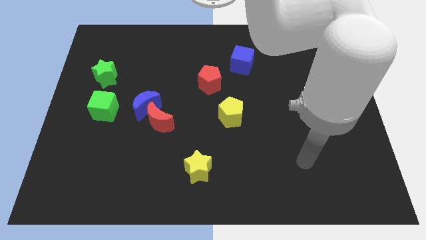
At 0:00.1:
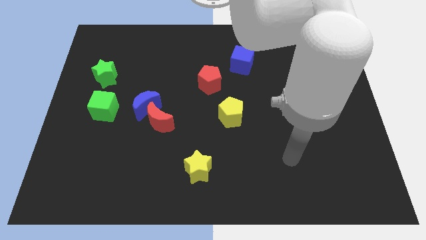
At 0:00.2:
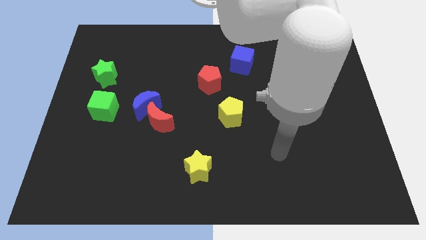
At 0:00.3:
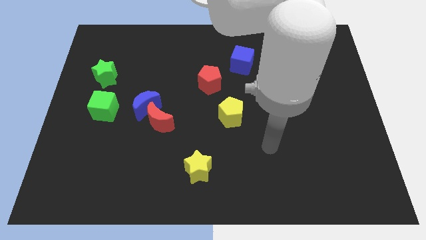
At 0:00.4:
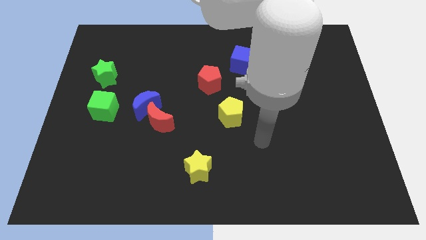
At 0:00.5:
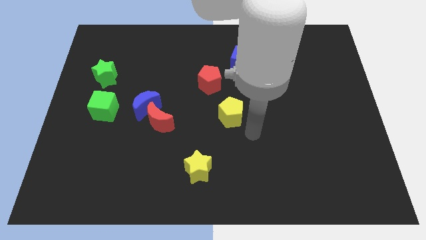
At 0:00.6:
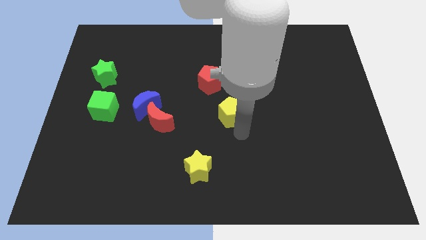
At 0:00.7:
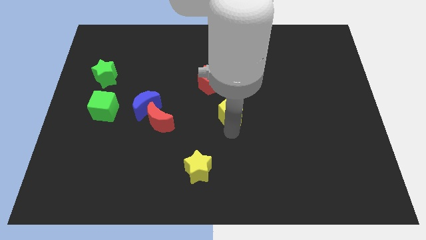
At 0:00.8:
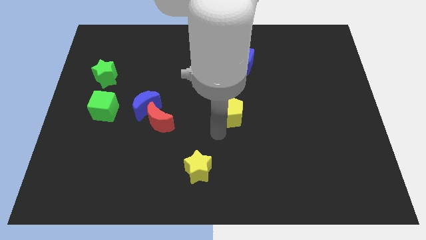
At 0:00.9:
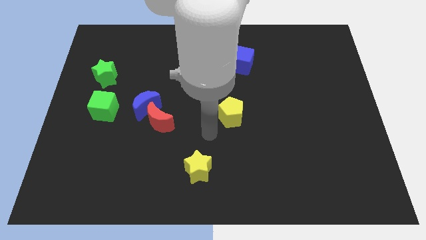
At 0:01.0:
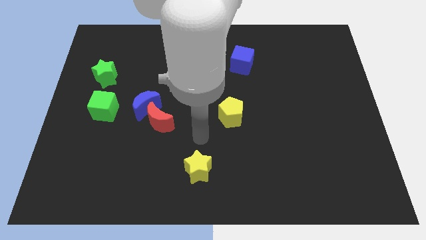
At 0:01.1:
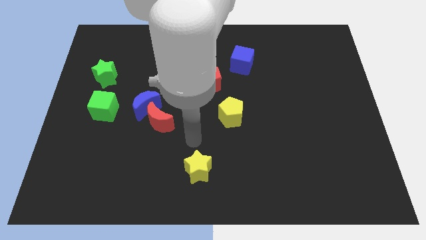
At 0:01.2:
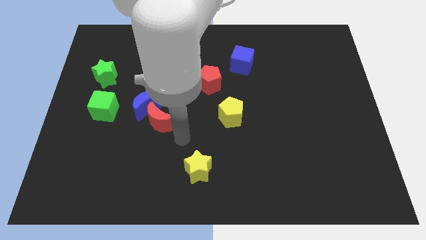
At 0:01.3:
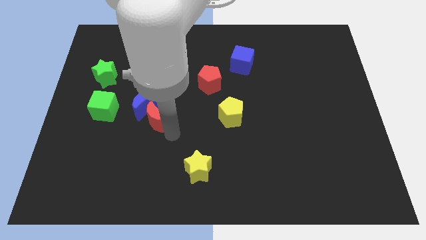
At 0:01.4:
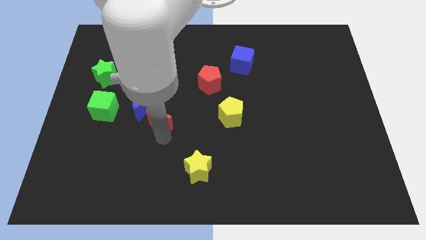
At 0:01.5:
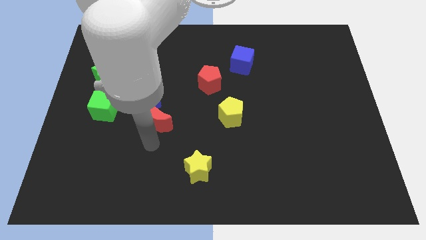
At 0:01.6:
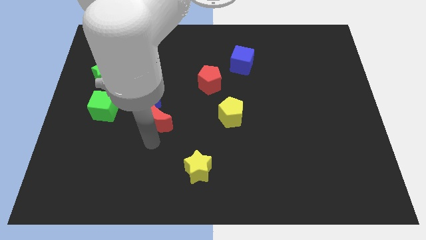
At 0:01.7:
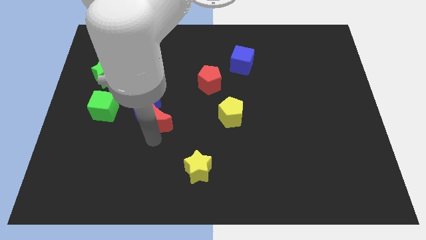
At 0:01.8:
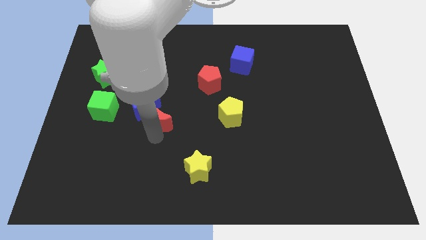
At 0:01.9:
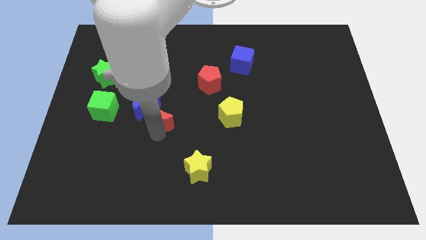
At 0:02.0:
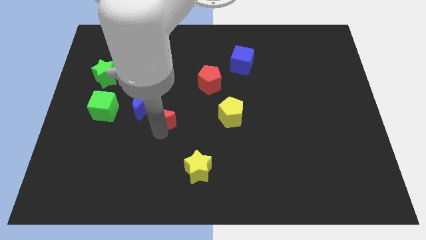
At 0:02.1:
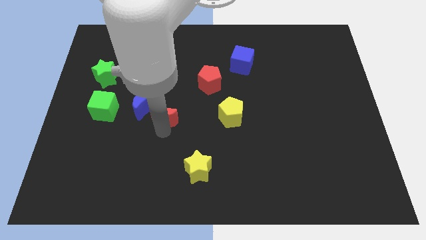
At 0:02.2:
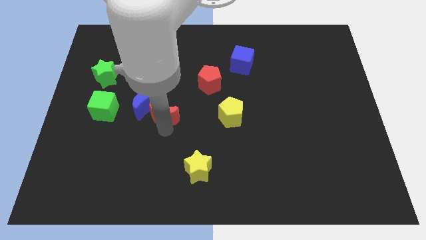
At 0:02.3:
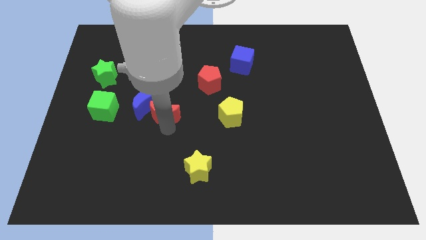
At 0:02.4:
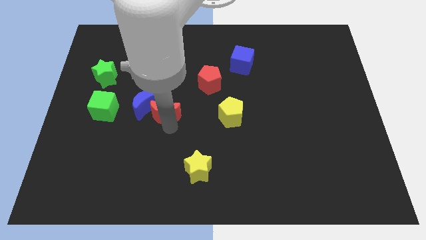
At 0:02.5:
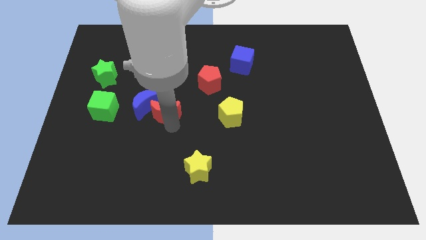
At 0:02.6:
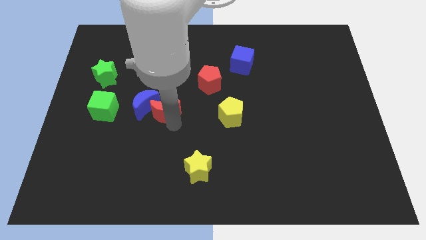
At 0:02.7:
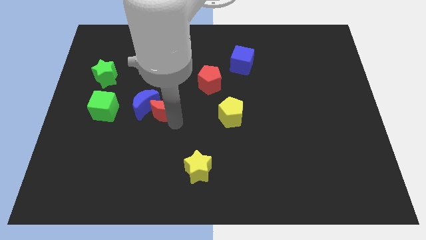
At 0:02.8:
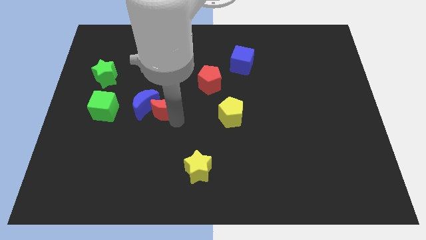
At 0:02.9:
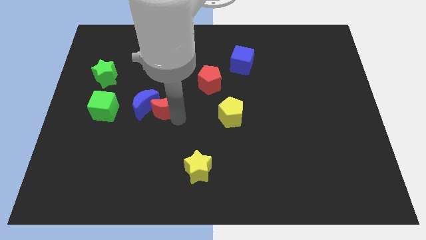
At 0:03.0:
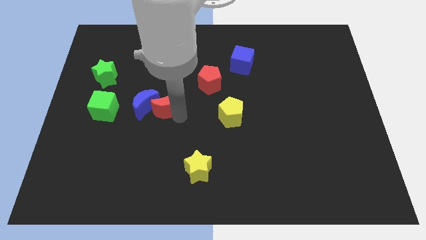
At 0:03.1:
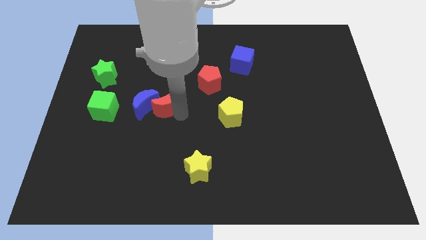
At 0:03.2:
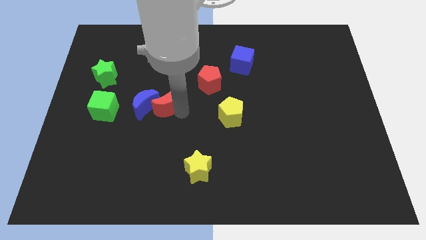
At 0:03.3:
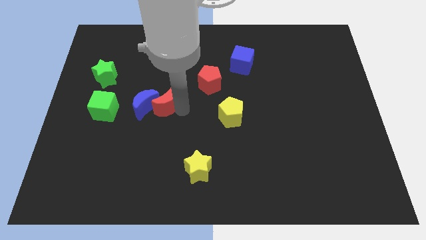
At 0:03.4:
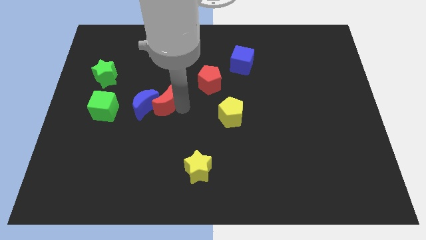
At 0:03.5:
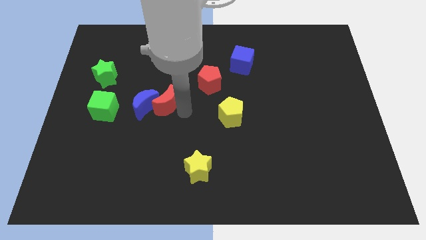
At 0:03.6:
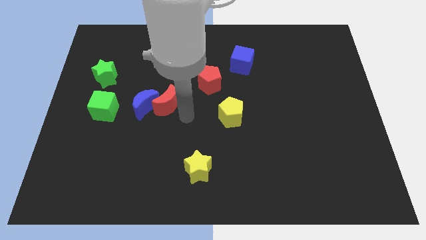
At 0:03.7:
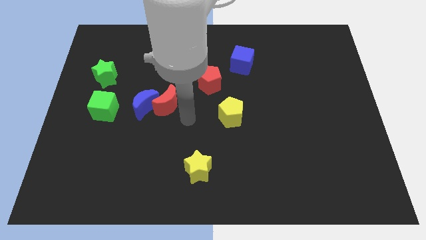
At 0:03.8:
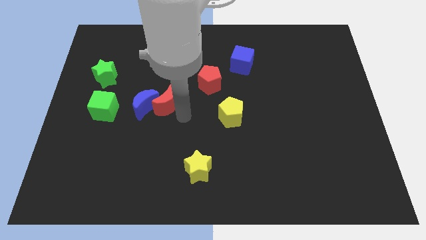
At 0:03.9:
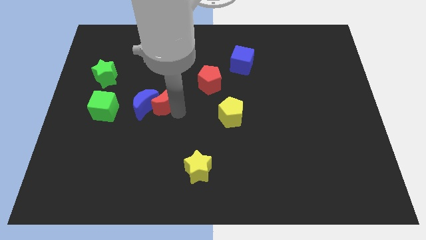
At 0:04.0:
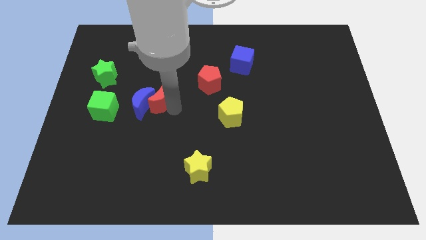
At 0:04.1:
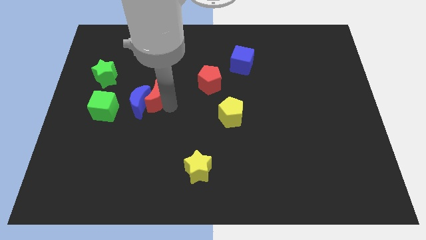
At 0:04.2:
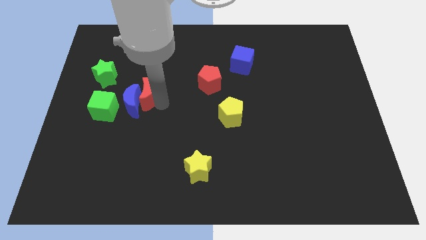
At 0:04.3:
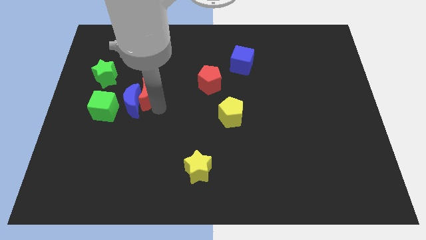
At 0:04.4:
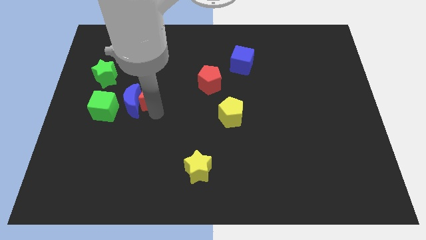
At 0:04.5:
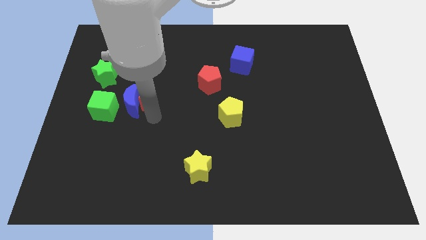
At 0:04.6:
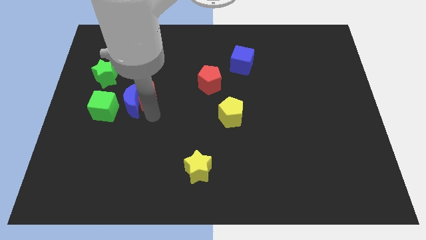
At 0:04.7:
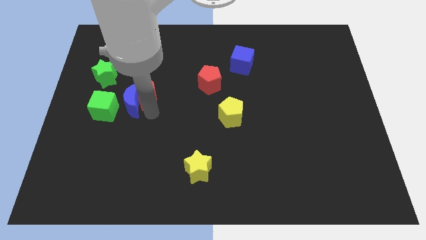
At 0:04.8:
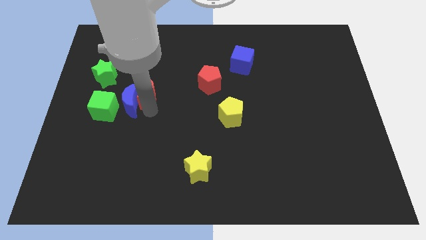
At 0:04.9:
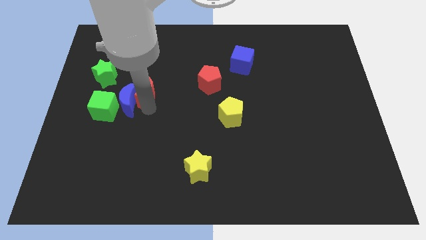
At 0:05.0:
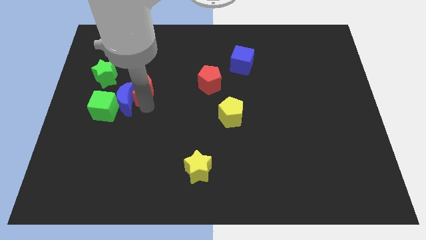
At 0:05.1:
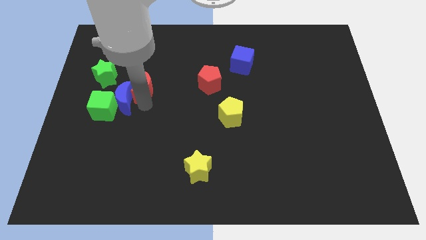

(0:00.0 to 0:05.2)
slide the red moon just right of the green star

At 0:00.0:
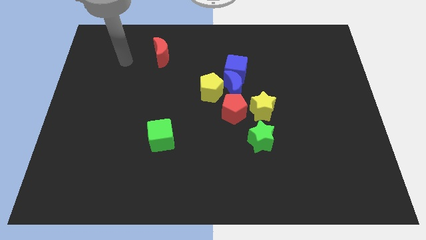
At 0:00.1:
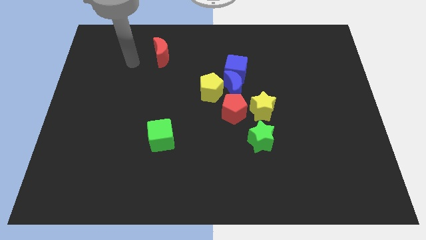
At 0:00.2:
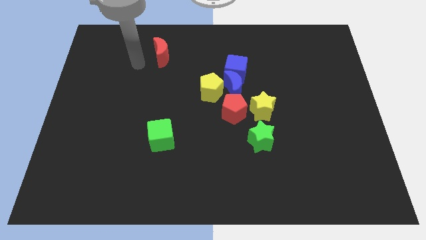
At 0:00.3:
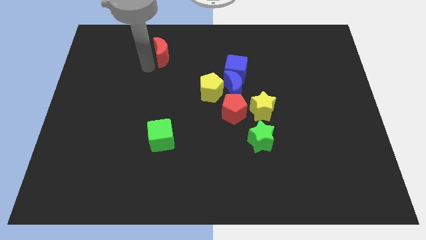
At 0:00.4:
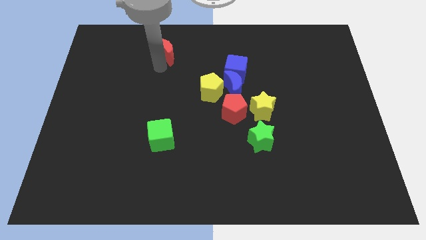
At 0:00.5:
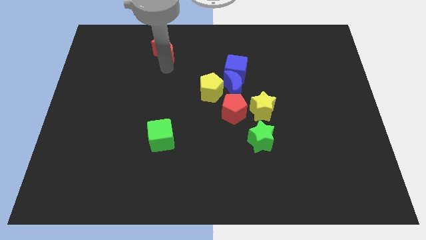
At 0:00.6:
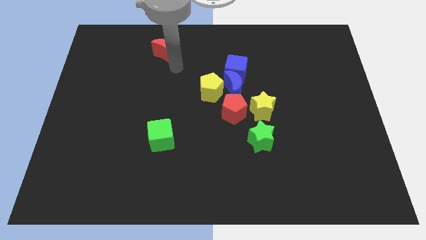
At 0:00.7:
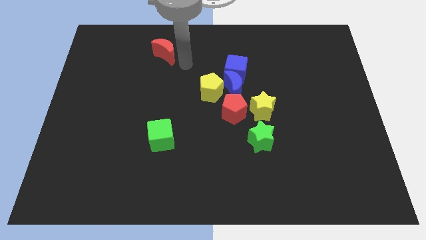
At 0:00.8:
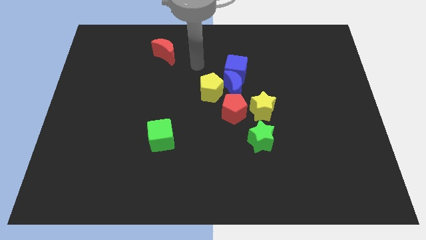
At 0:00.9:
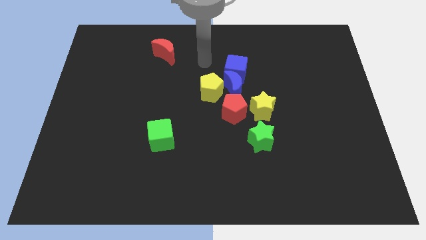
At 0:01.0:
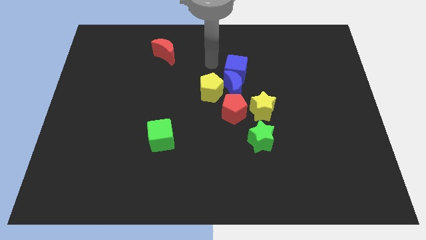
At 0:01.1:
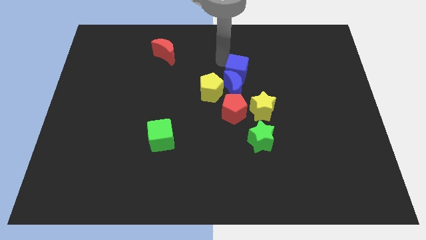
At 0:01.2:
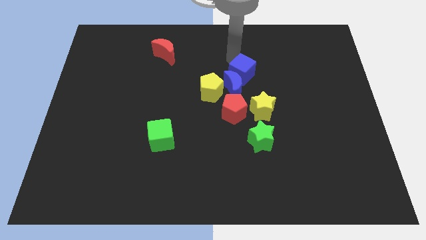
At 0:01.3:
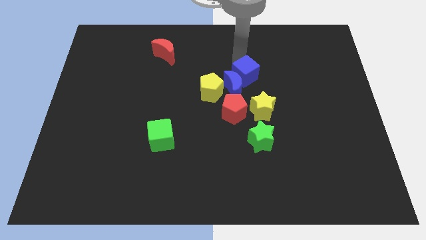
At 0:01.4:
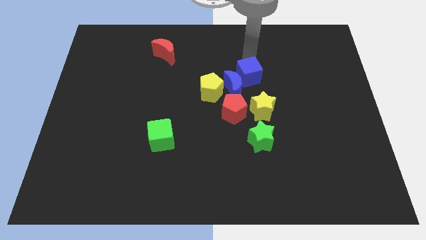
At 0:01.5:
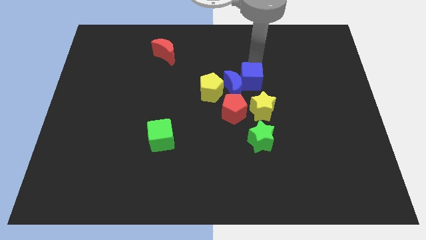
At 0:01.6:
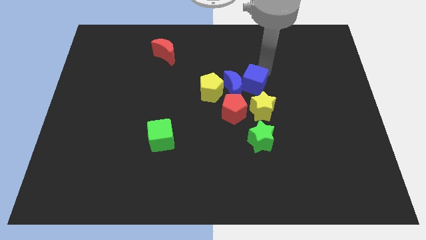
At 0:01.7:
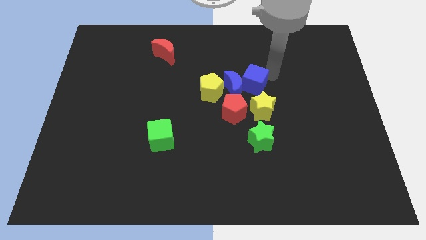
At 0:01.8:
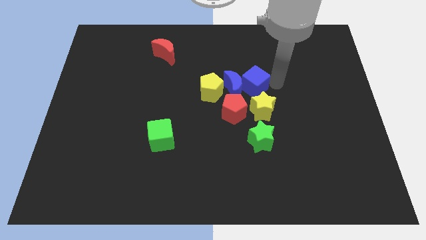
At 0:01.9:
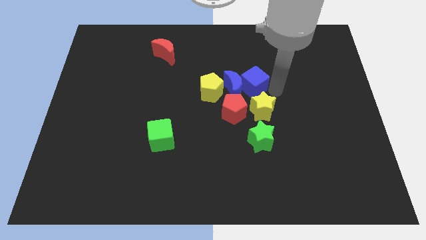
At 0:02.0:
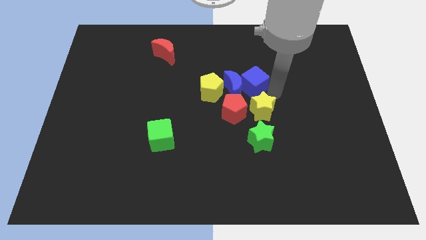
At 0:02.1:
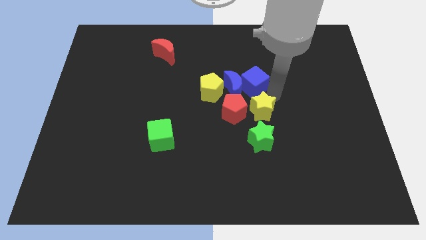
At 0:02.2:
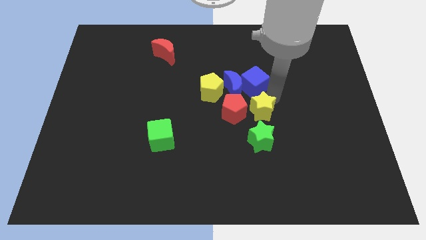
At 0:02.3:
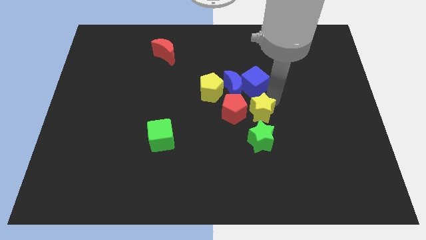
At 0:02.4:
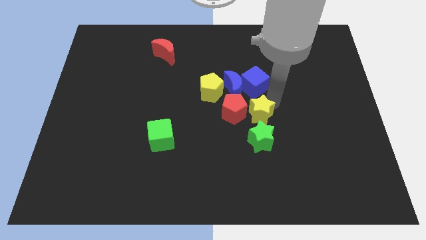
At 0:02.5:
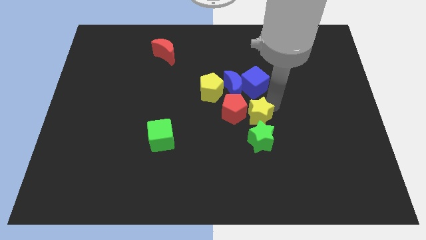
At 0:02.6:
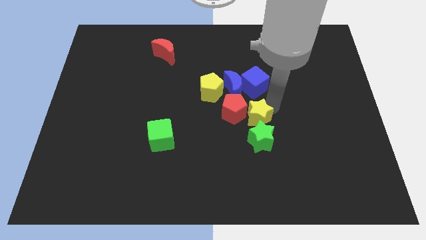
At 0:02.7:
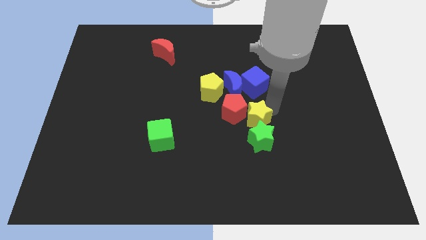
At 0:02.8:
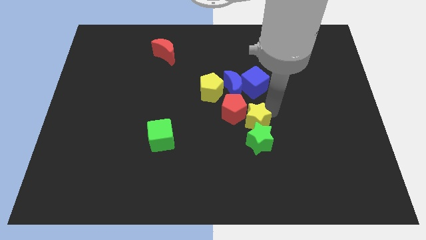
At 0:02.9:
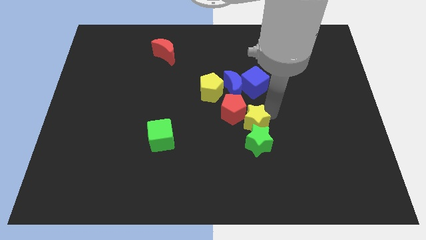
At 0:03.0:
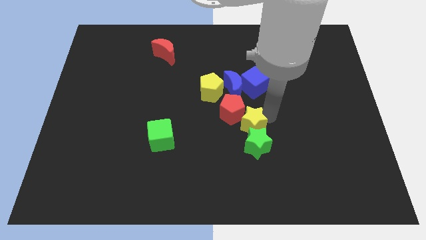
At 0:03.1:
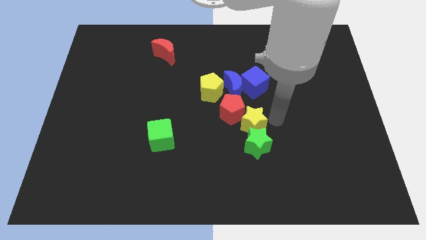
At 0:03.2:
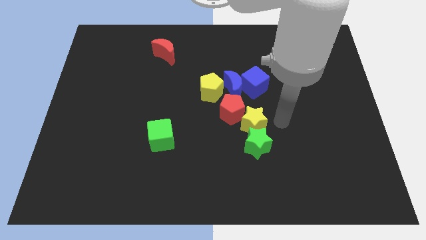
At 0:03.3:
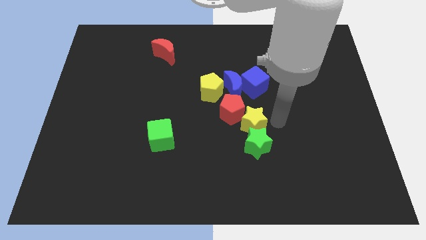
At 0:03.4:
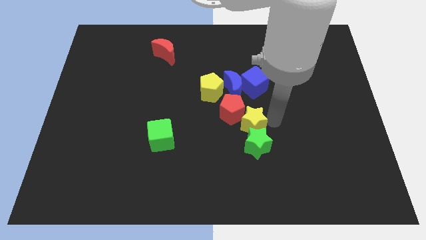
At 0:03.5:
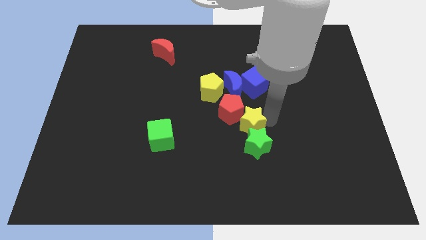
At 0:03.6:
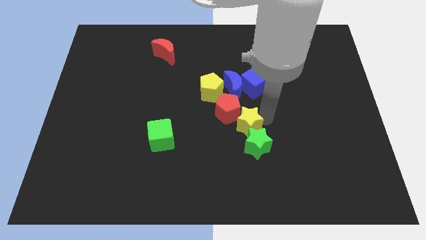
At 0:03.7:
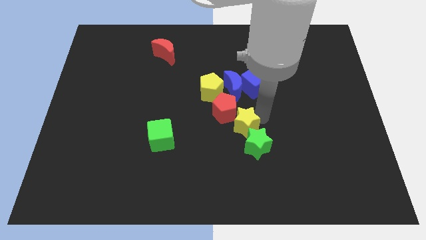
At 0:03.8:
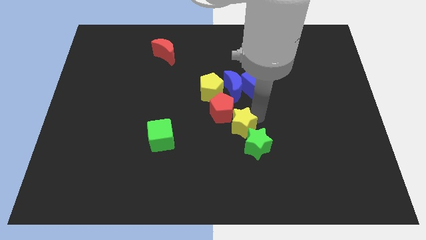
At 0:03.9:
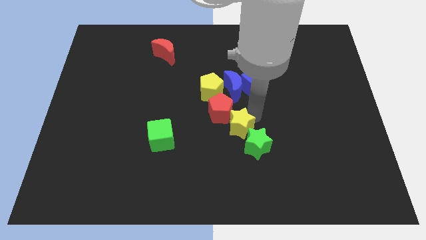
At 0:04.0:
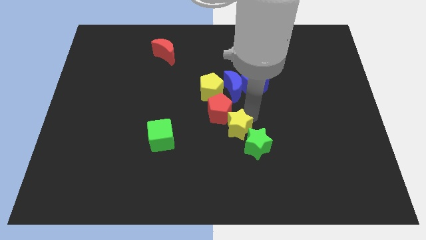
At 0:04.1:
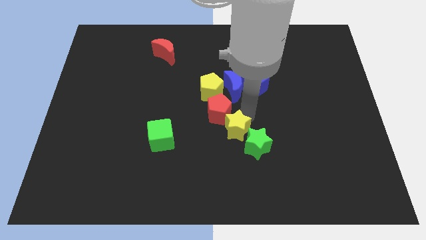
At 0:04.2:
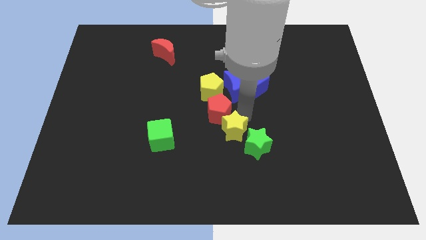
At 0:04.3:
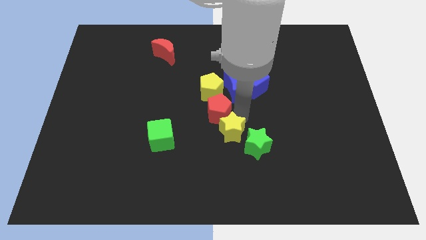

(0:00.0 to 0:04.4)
slide the yellow star to the bottom side of the yellow pentagon
